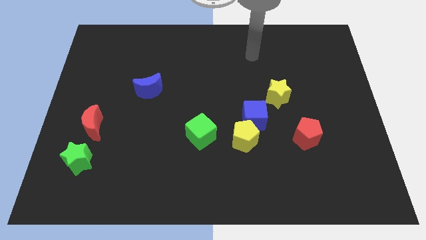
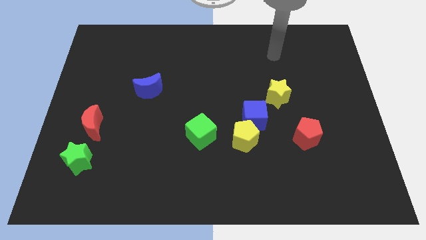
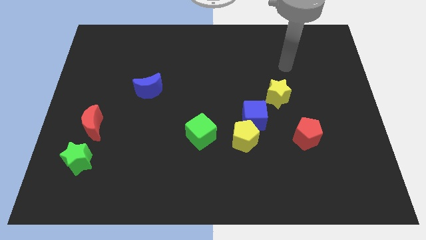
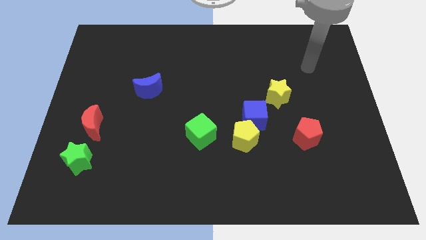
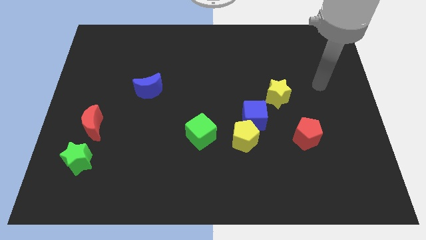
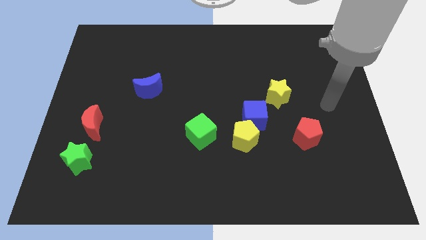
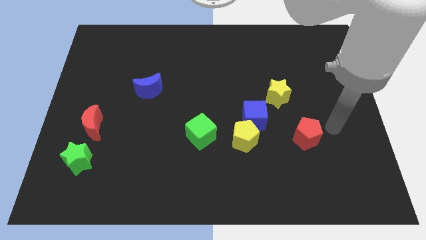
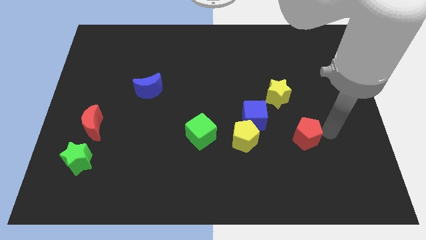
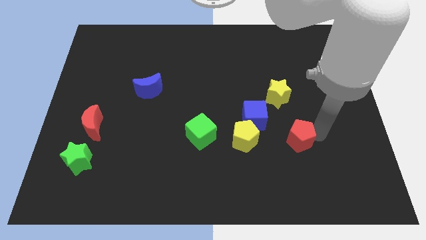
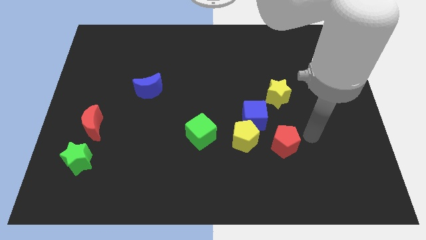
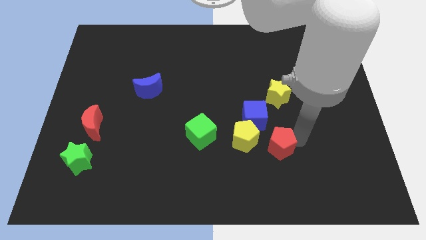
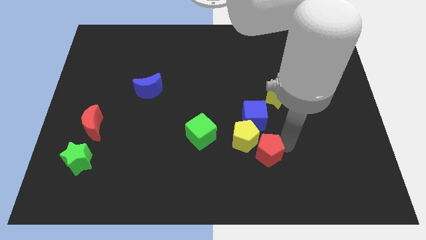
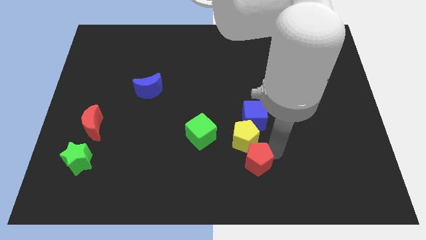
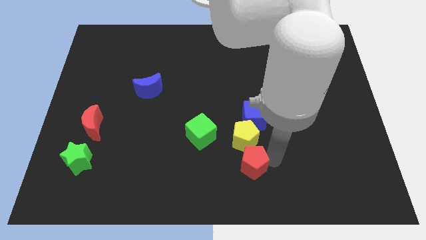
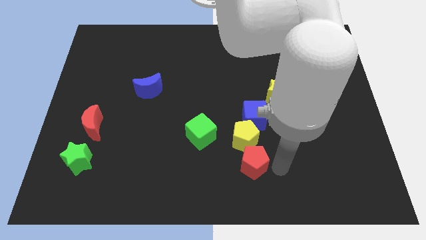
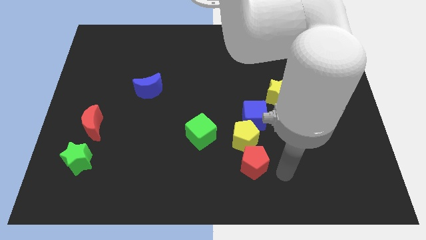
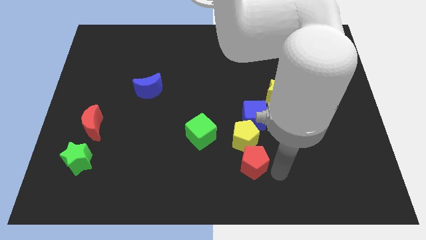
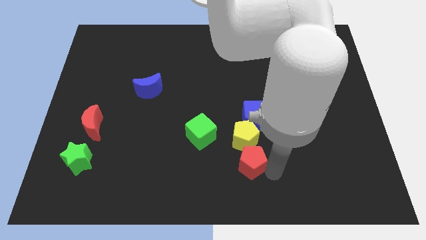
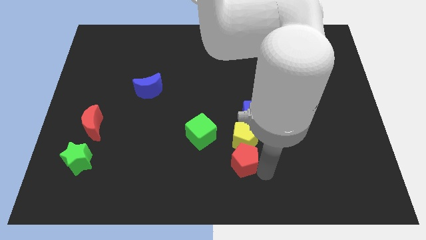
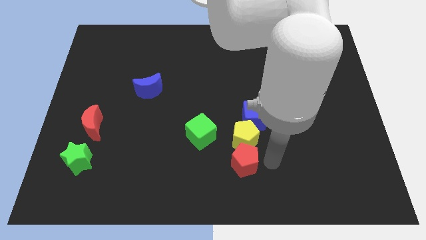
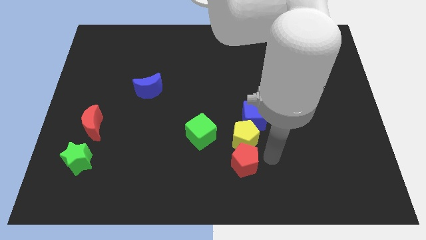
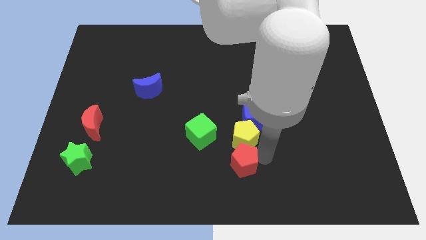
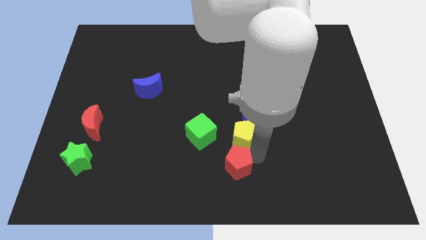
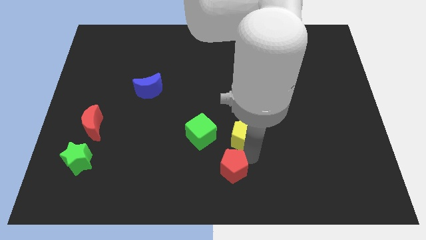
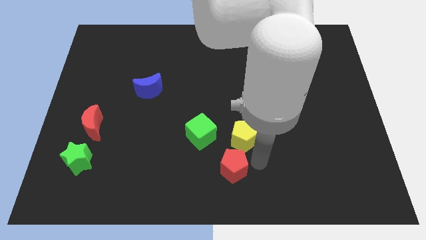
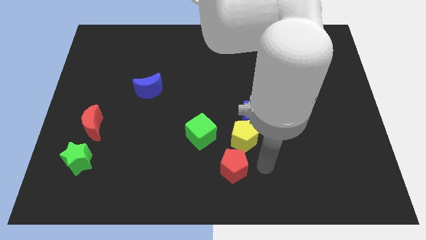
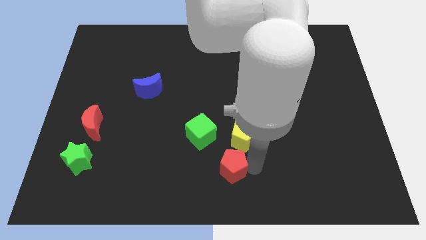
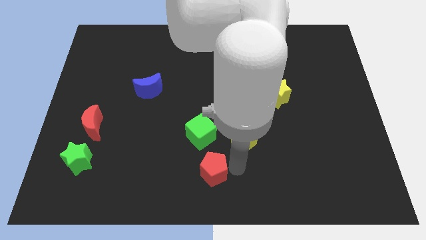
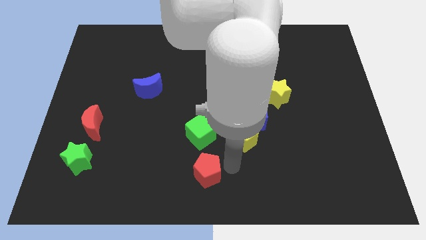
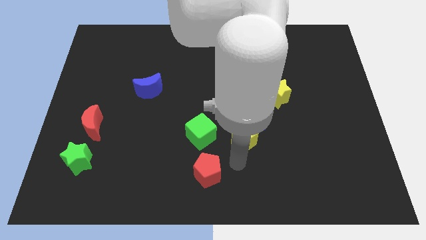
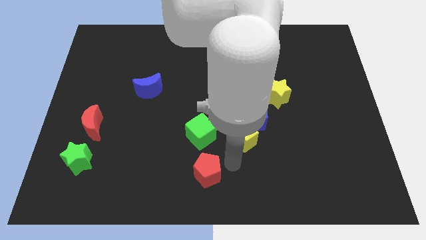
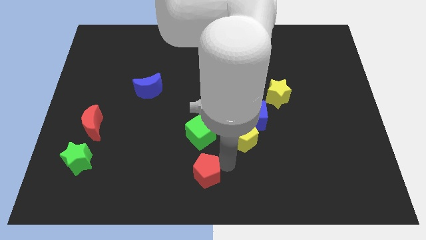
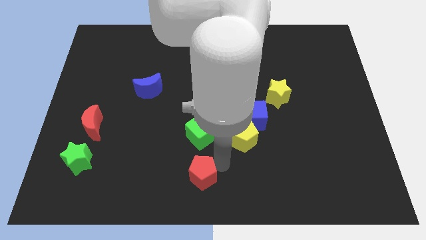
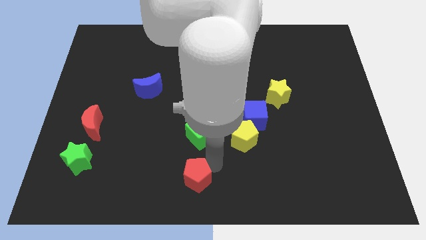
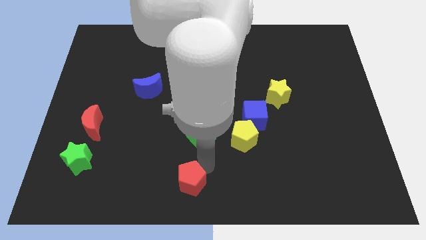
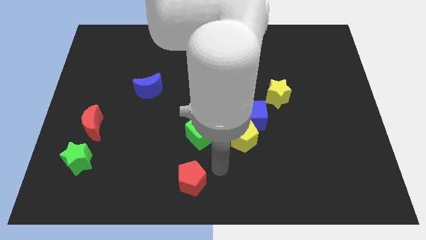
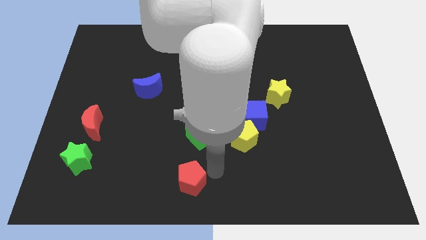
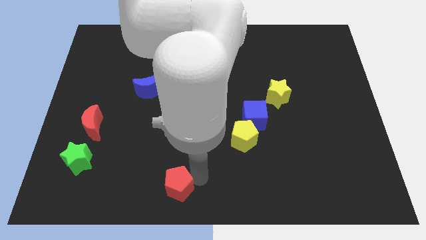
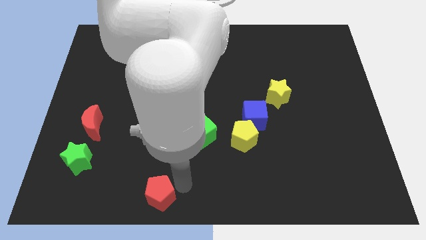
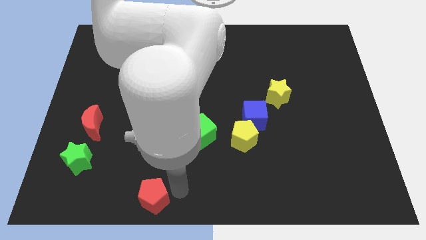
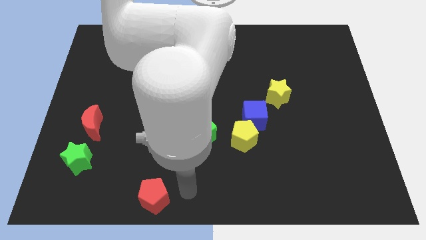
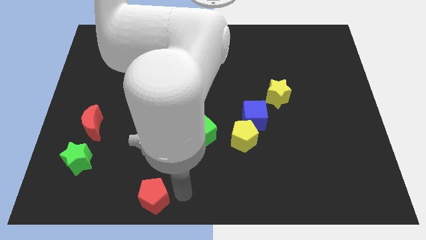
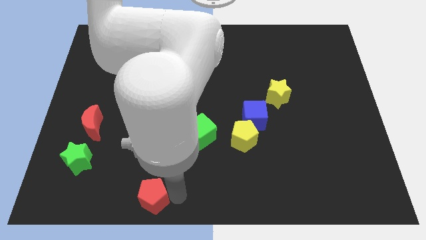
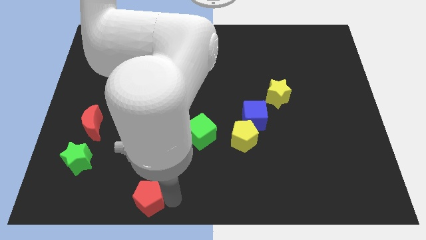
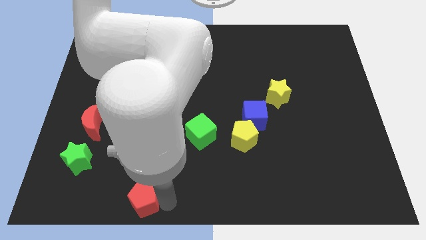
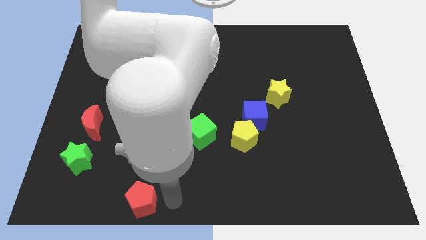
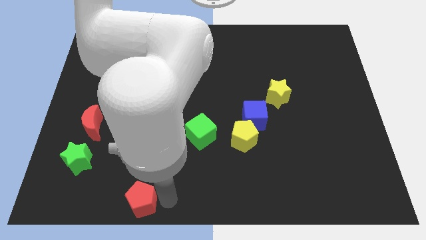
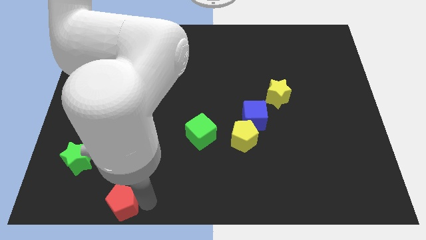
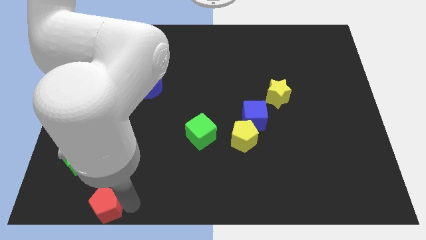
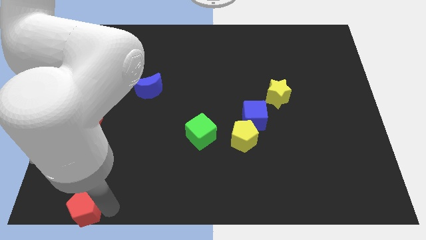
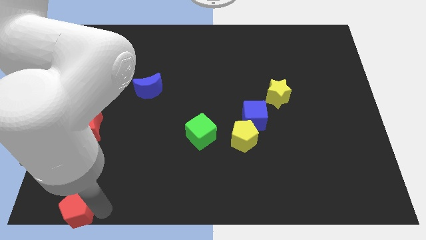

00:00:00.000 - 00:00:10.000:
push the red pentagon to the bottom left of the board

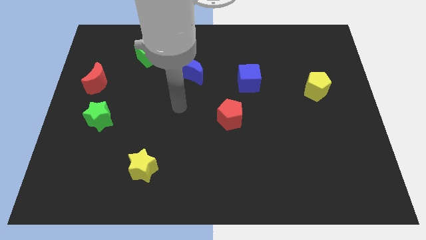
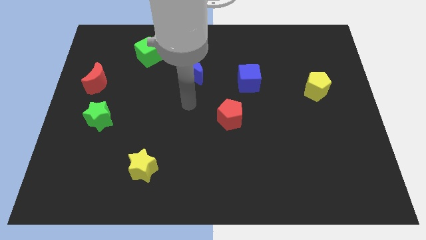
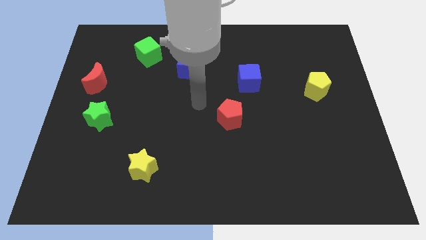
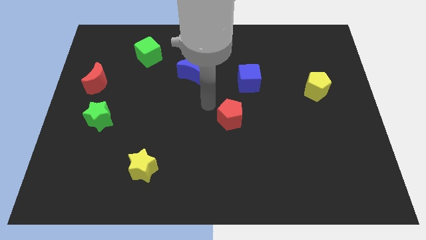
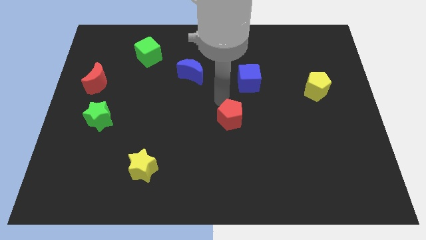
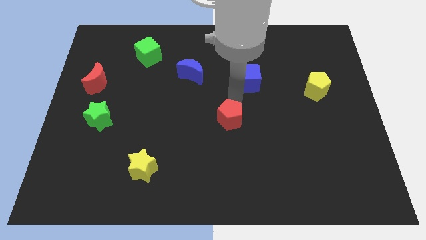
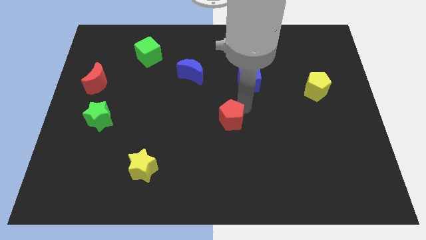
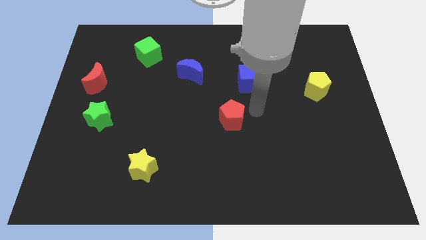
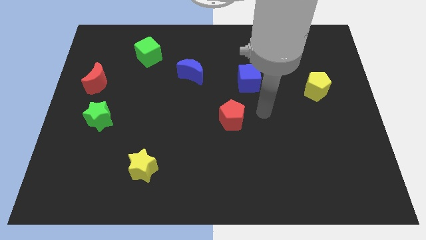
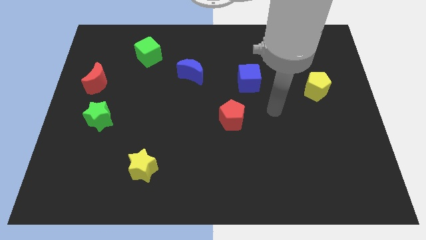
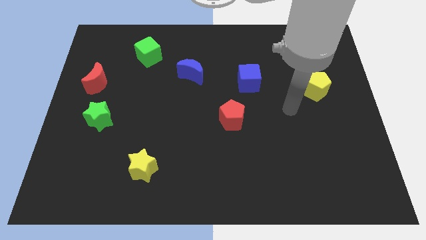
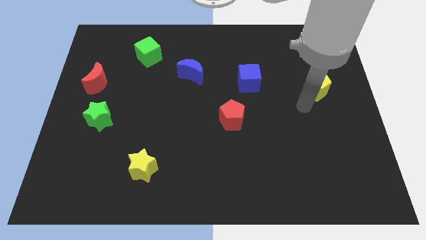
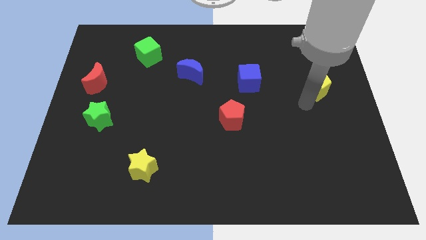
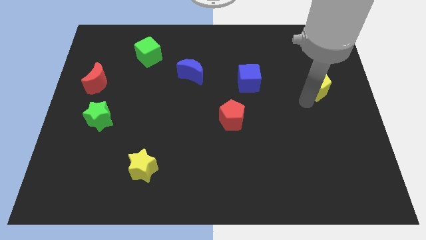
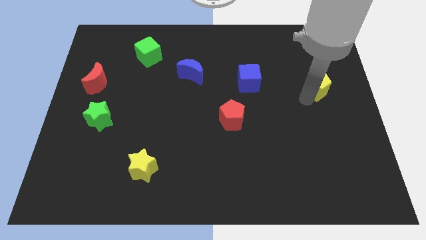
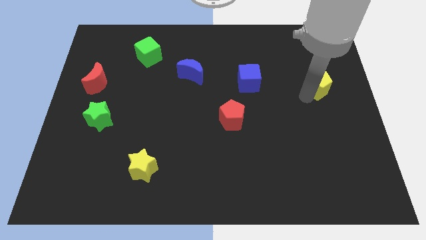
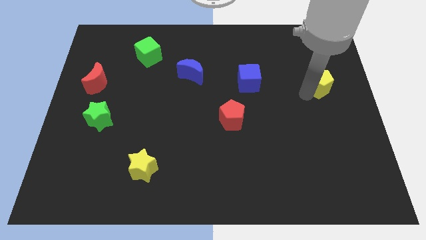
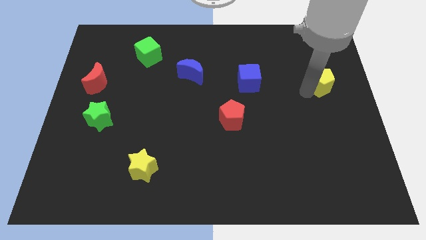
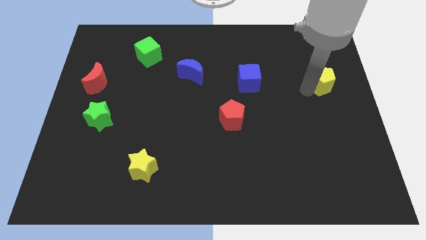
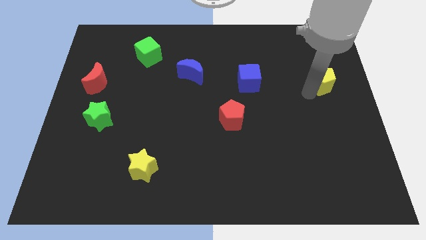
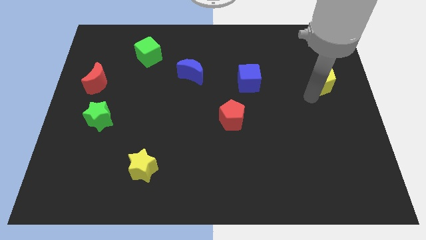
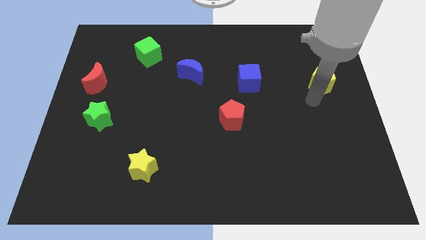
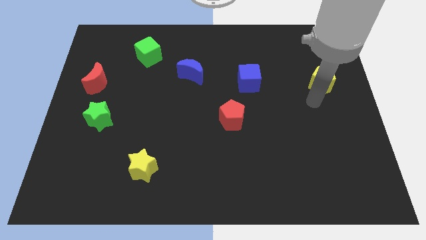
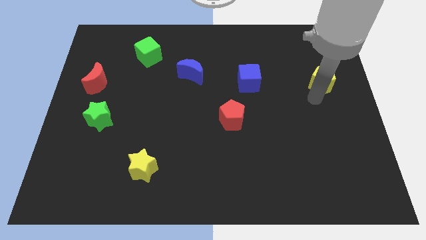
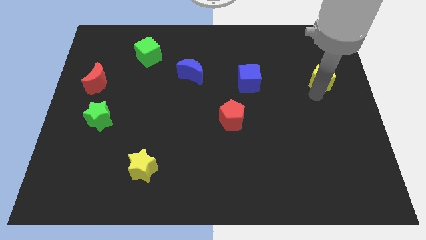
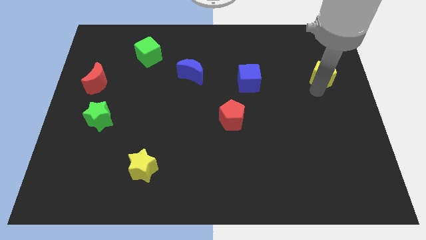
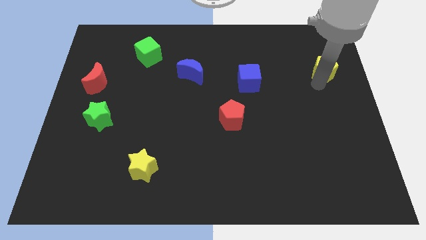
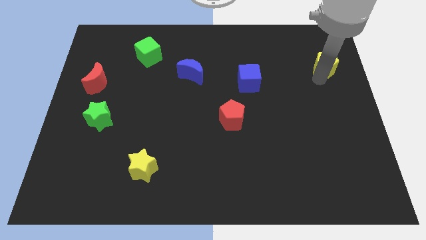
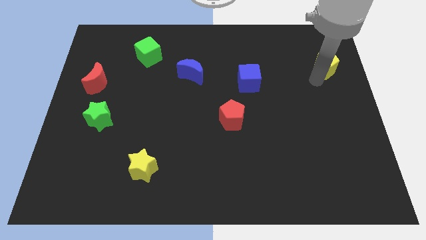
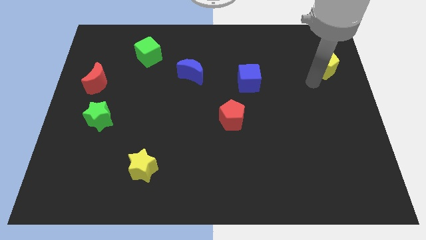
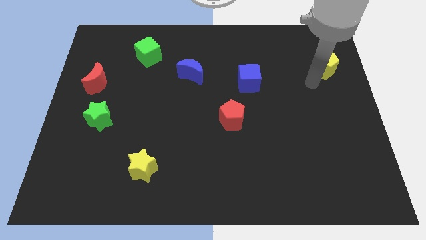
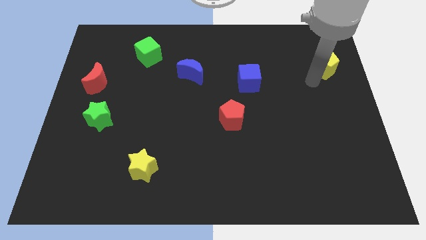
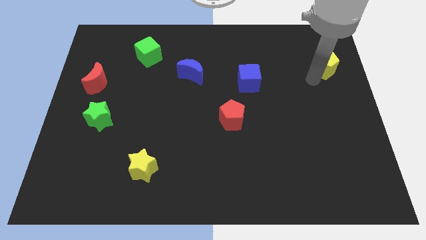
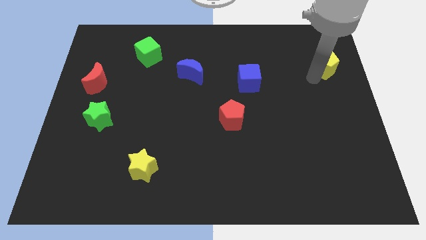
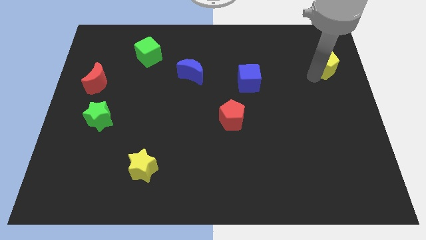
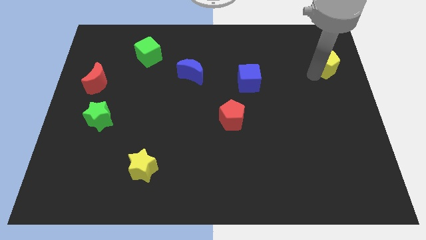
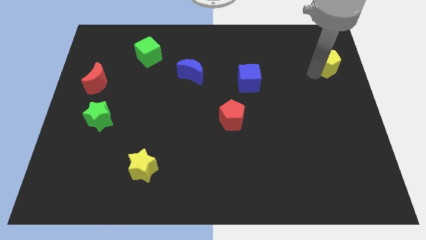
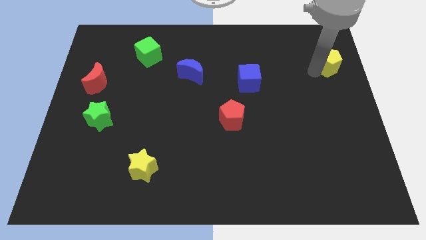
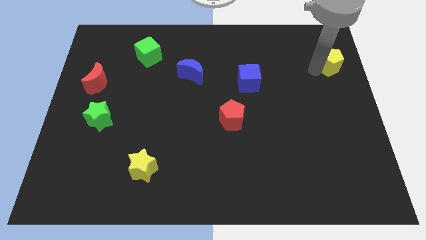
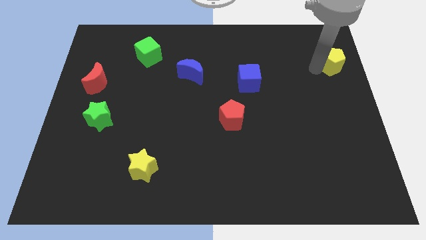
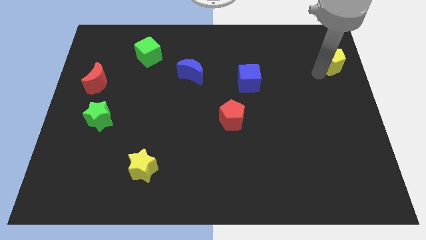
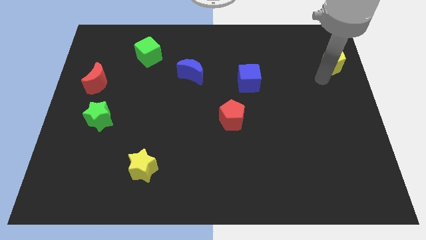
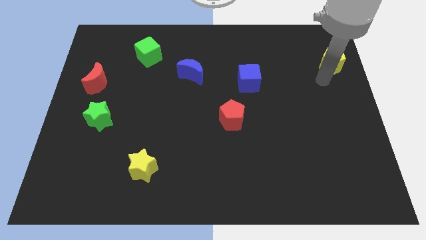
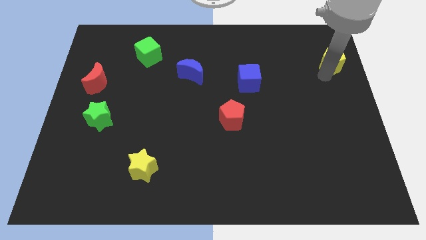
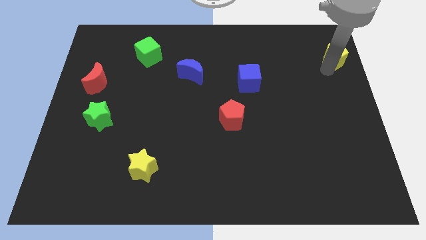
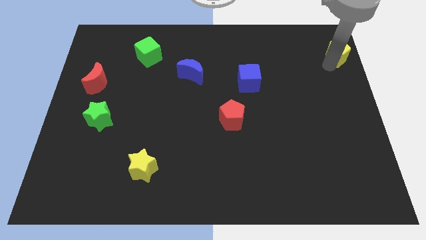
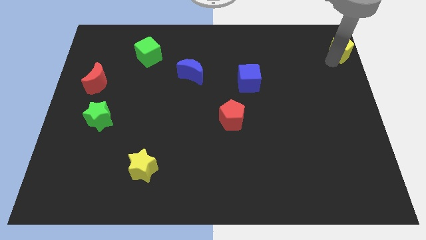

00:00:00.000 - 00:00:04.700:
put the yellow pentagon to the top right of the board
